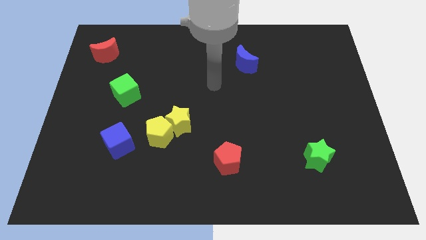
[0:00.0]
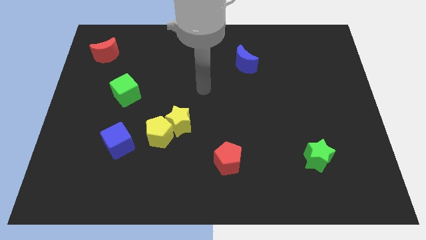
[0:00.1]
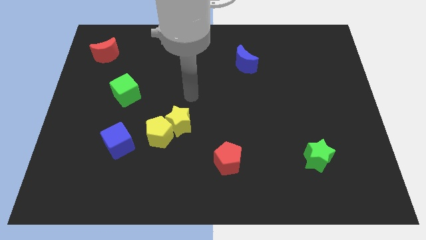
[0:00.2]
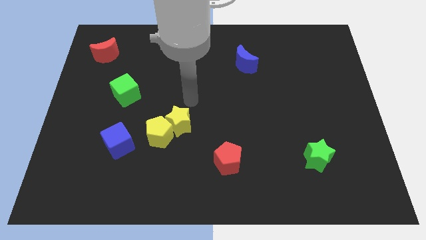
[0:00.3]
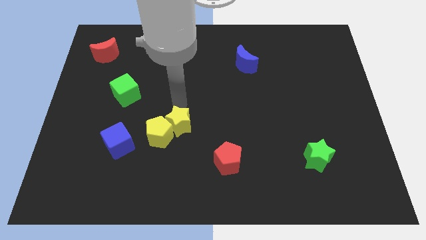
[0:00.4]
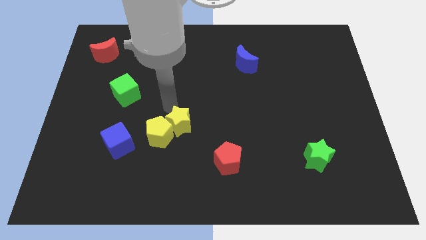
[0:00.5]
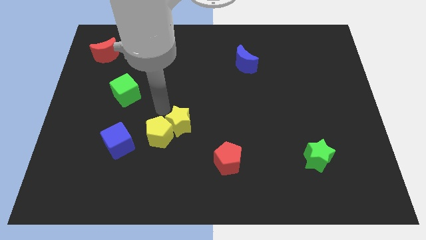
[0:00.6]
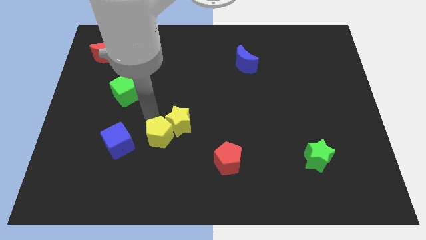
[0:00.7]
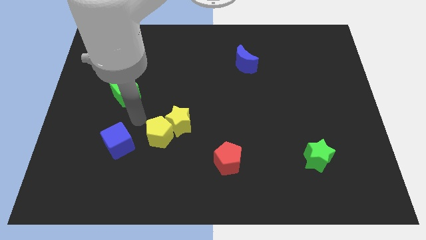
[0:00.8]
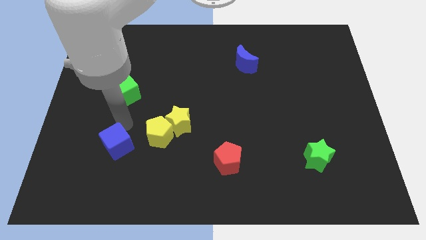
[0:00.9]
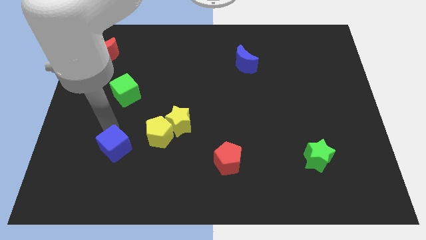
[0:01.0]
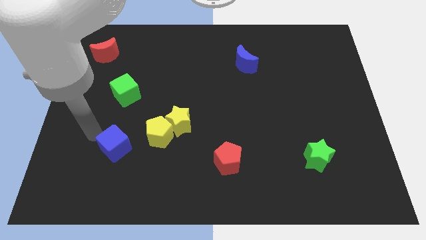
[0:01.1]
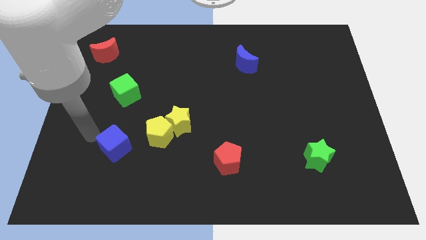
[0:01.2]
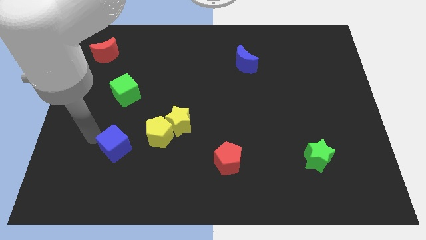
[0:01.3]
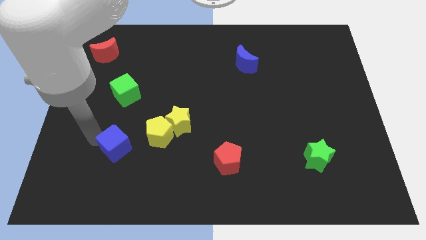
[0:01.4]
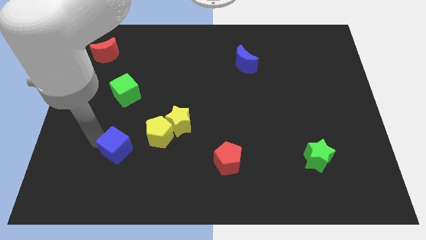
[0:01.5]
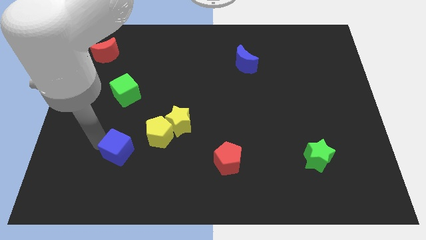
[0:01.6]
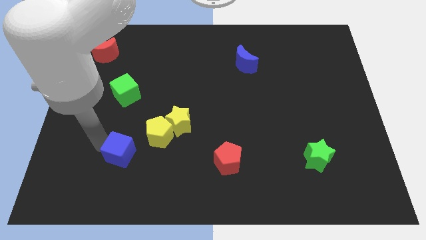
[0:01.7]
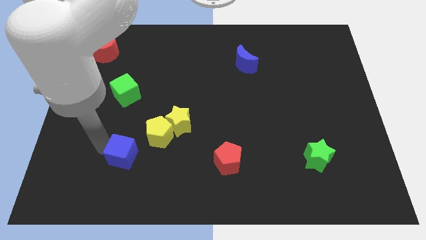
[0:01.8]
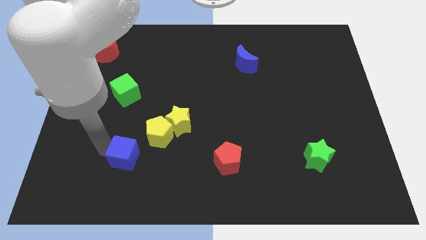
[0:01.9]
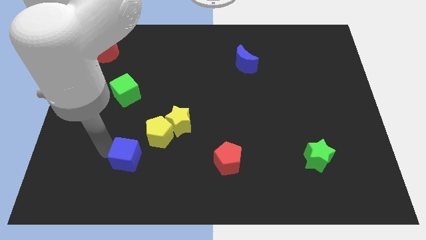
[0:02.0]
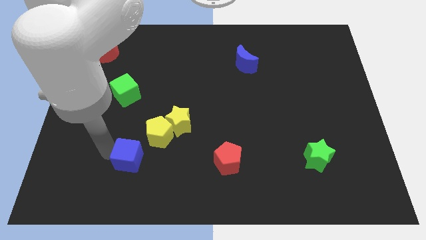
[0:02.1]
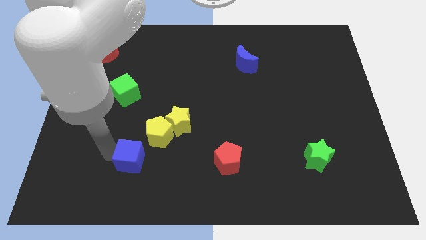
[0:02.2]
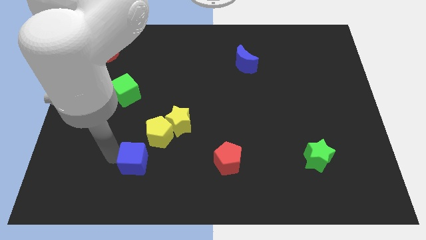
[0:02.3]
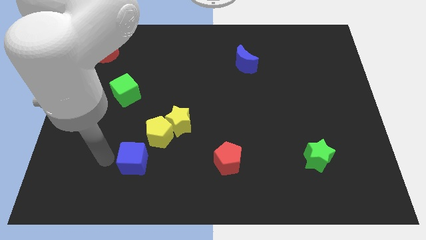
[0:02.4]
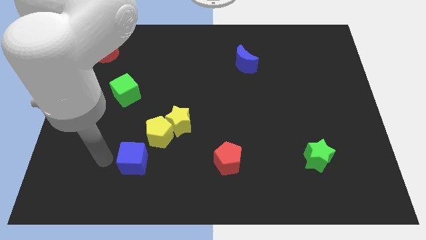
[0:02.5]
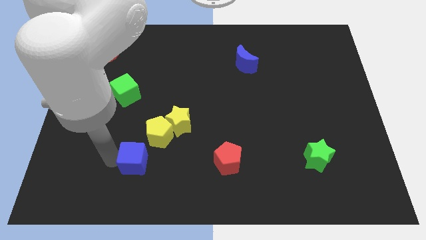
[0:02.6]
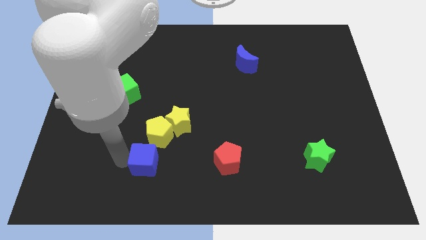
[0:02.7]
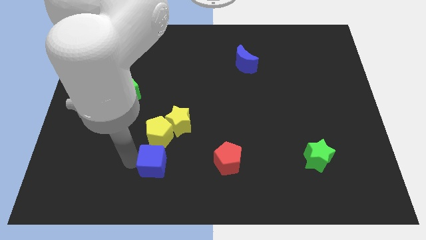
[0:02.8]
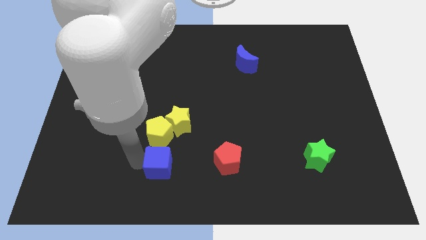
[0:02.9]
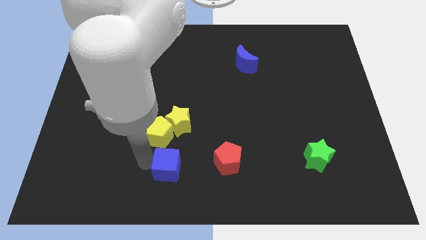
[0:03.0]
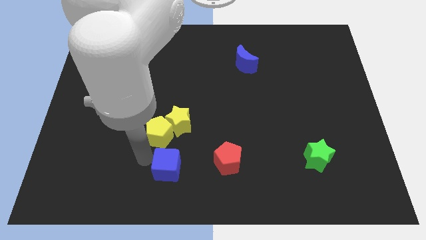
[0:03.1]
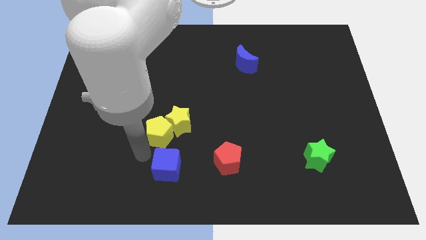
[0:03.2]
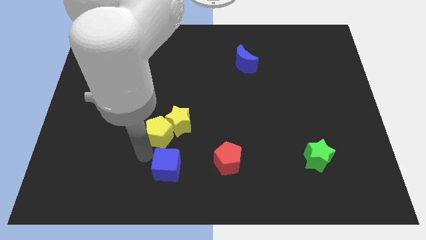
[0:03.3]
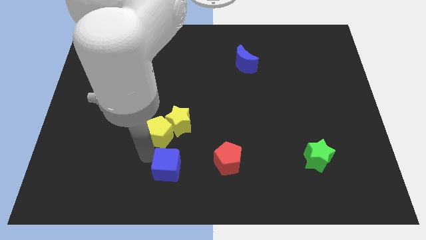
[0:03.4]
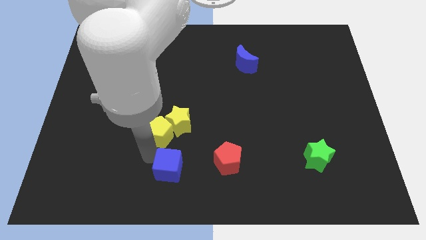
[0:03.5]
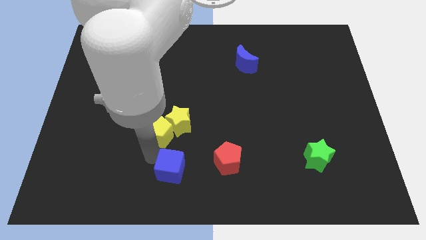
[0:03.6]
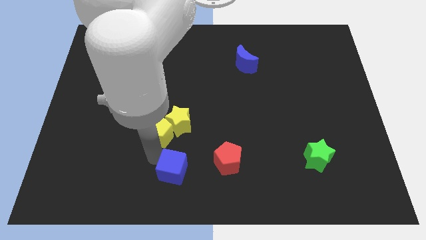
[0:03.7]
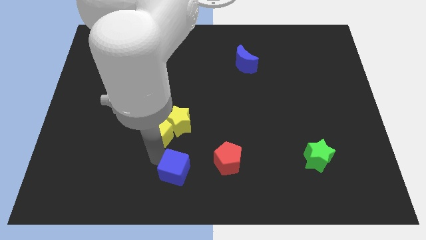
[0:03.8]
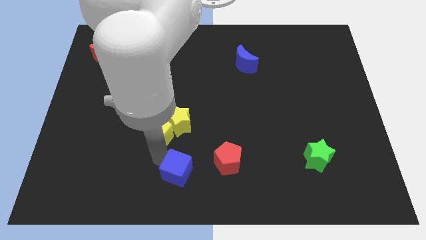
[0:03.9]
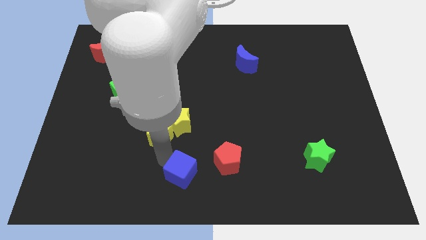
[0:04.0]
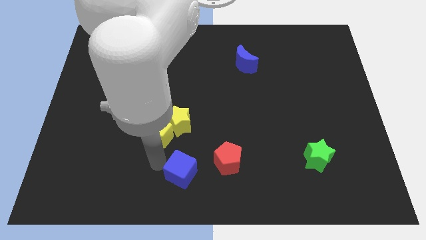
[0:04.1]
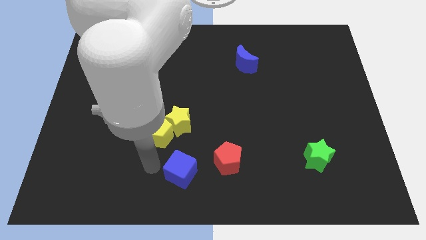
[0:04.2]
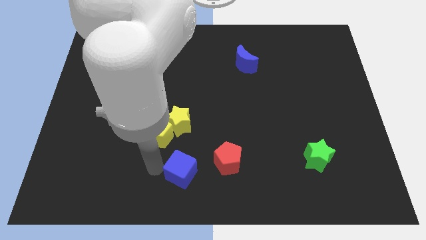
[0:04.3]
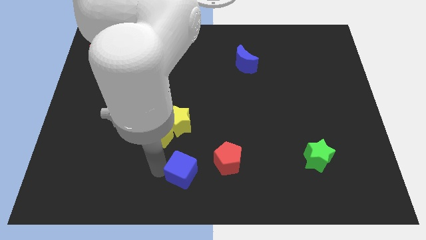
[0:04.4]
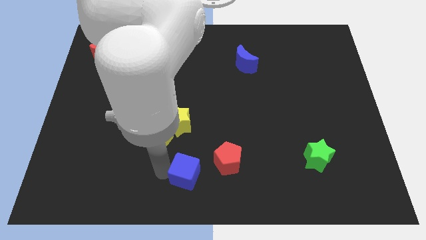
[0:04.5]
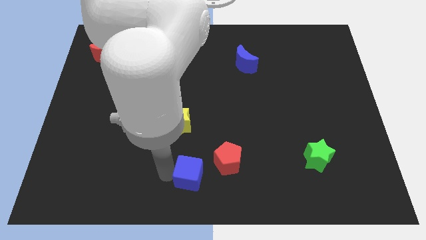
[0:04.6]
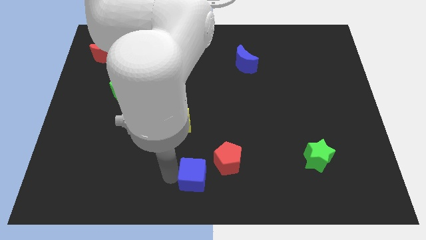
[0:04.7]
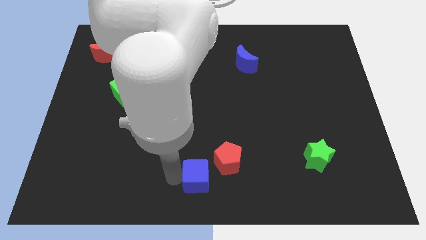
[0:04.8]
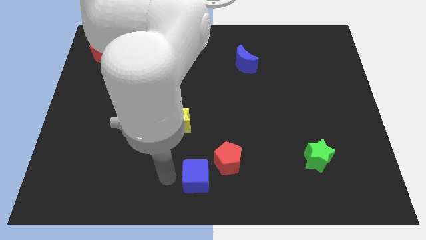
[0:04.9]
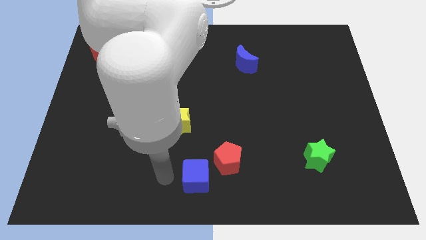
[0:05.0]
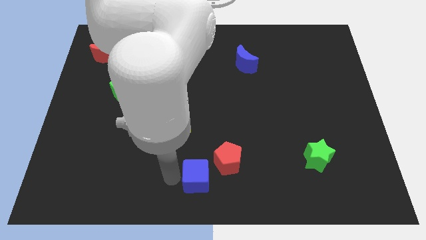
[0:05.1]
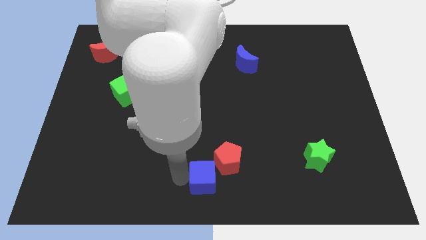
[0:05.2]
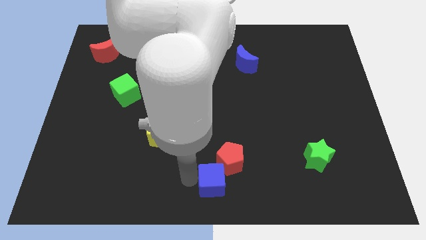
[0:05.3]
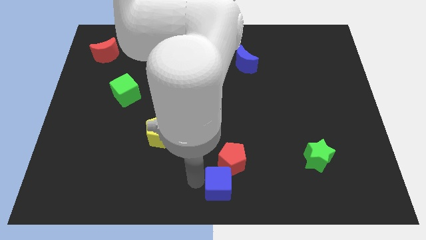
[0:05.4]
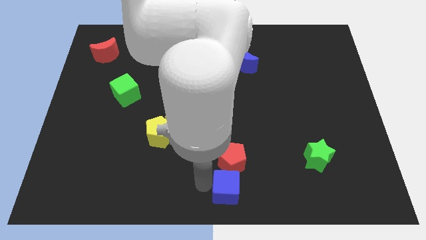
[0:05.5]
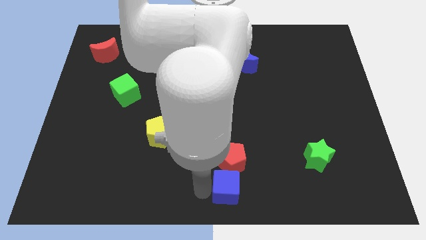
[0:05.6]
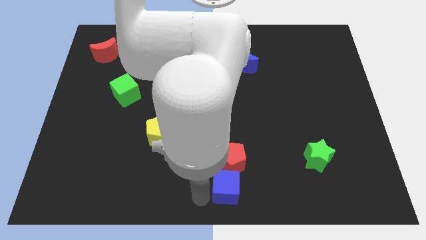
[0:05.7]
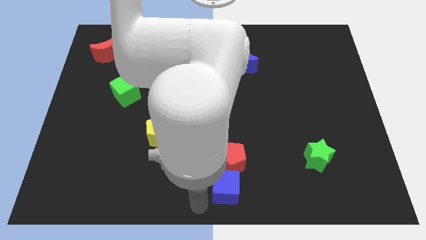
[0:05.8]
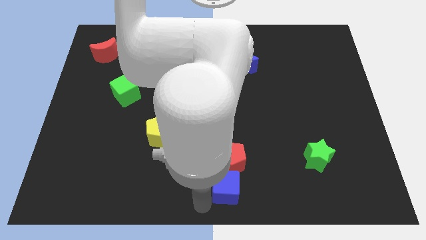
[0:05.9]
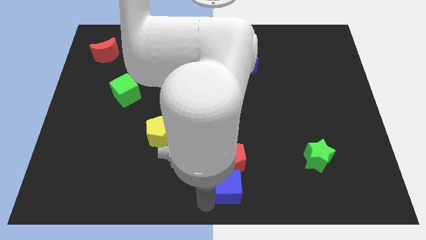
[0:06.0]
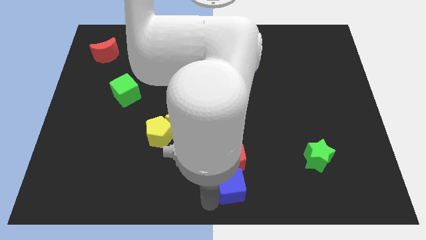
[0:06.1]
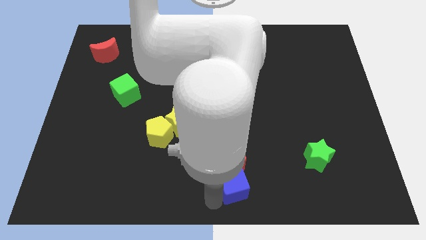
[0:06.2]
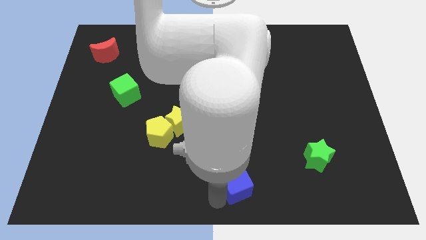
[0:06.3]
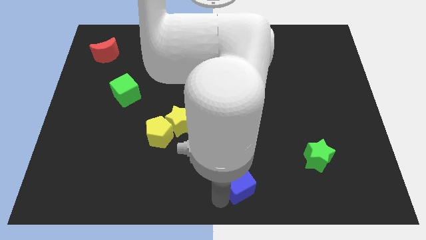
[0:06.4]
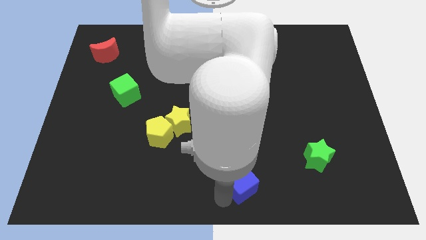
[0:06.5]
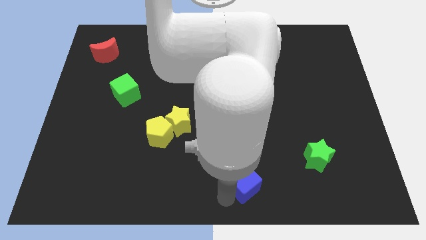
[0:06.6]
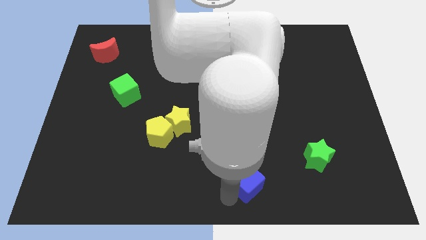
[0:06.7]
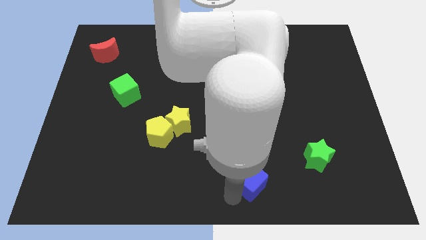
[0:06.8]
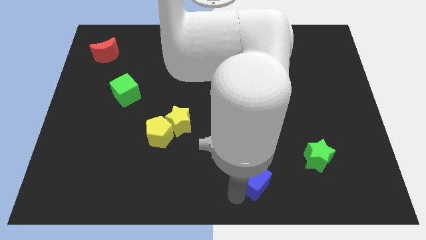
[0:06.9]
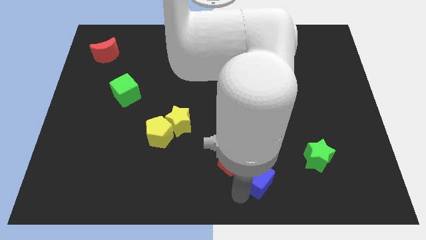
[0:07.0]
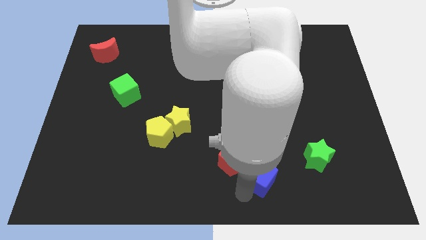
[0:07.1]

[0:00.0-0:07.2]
push the blue cube to the left side of the green star
